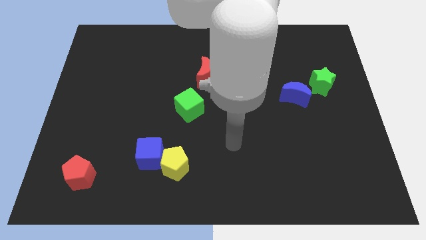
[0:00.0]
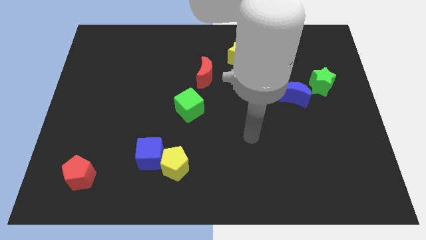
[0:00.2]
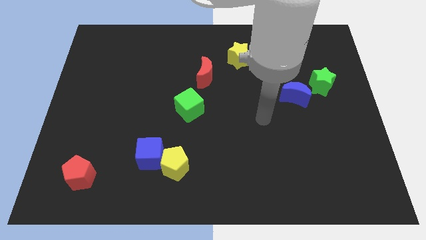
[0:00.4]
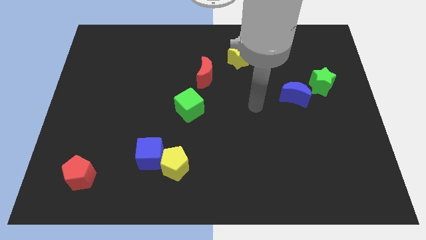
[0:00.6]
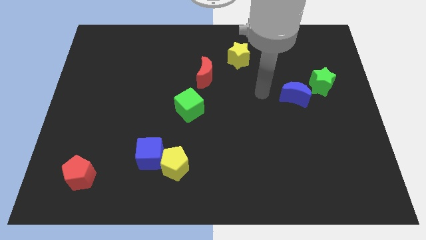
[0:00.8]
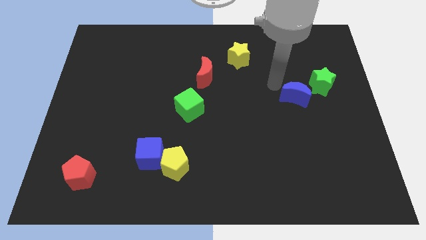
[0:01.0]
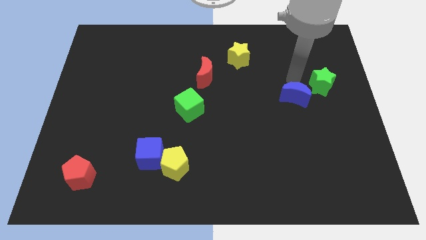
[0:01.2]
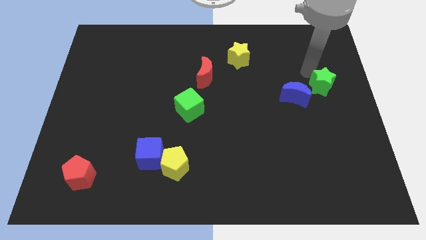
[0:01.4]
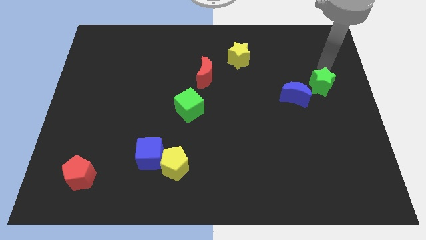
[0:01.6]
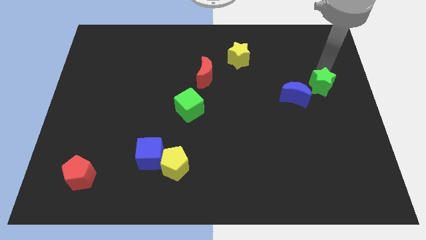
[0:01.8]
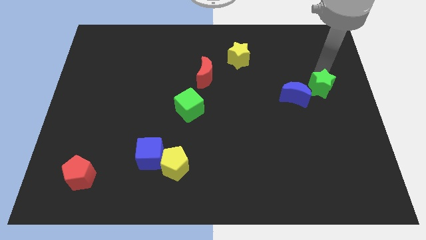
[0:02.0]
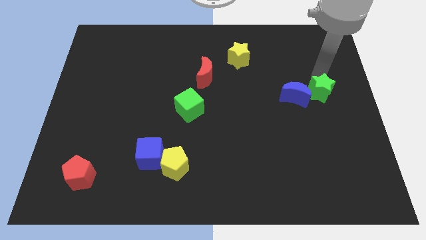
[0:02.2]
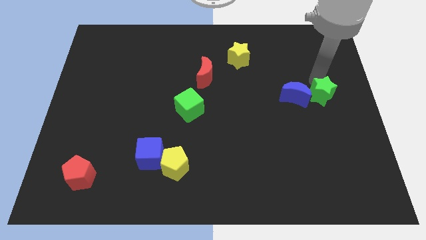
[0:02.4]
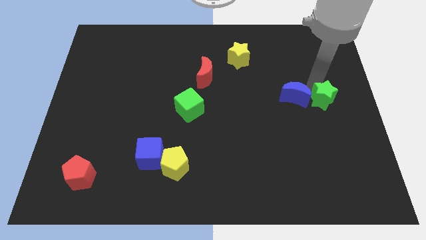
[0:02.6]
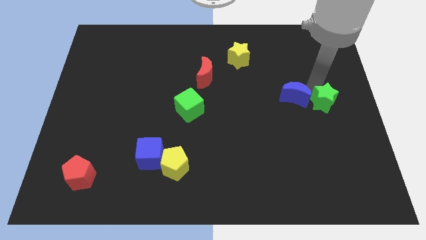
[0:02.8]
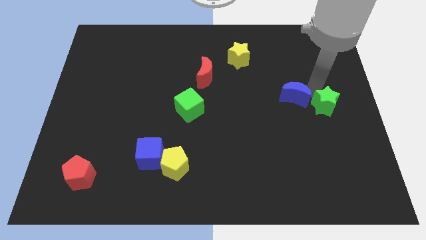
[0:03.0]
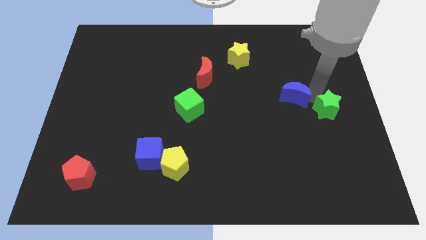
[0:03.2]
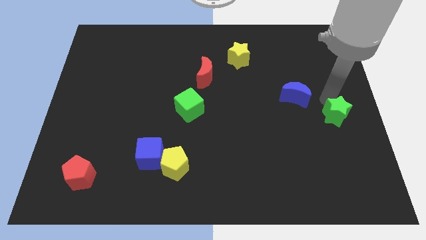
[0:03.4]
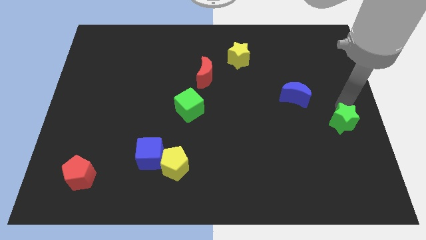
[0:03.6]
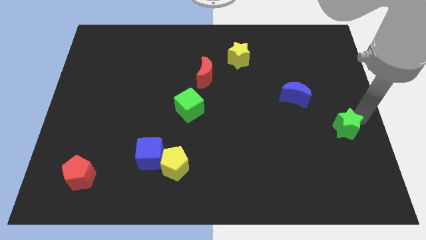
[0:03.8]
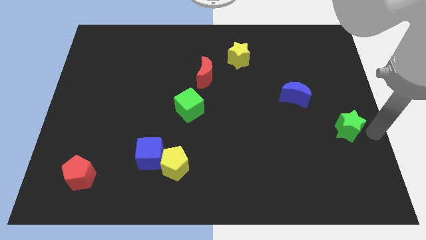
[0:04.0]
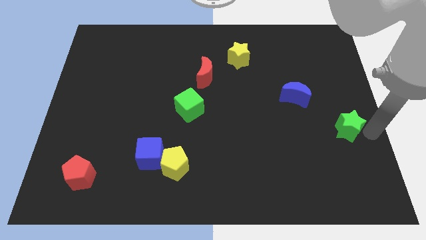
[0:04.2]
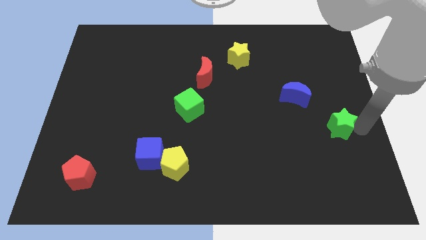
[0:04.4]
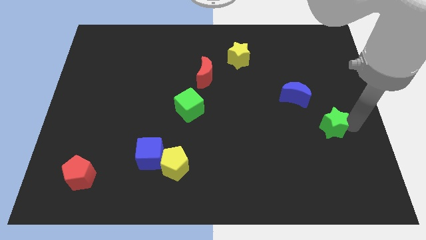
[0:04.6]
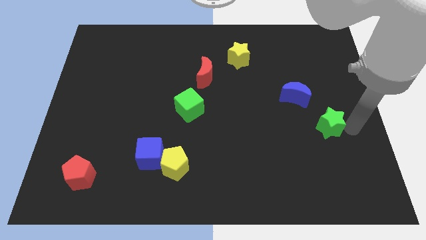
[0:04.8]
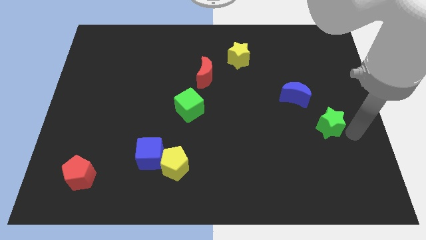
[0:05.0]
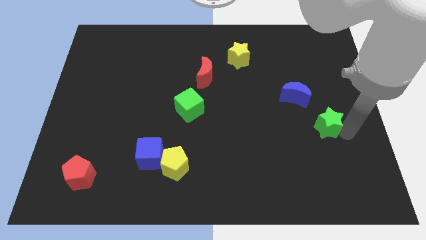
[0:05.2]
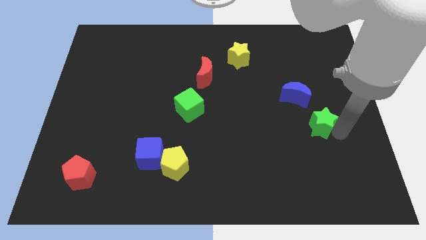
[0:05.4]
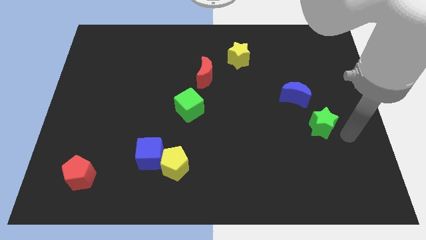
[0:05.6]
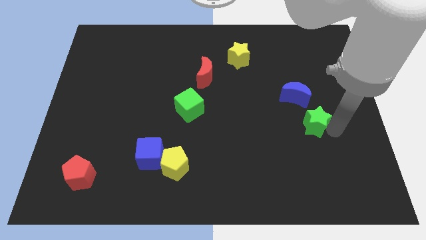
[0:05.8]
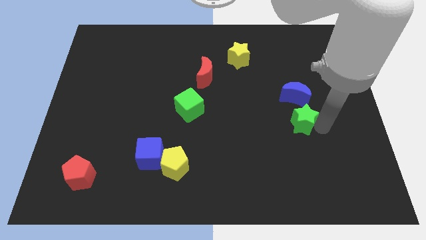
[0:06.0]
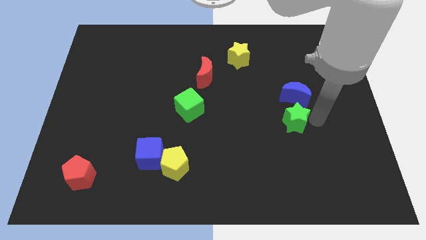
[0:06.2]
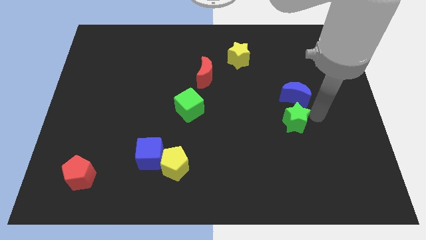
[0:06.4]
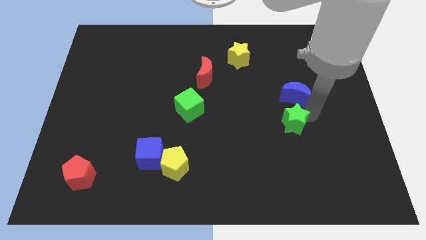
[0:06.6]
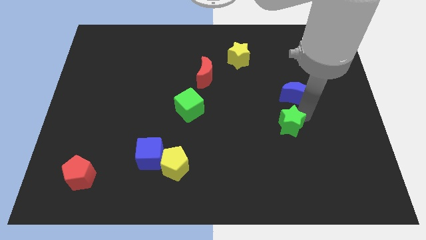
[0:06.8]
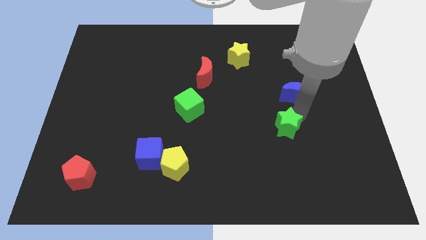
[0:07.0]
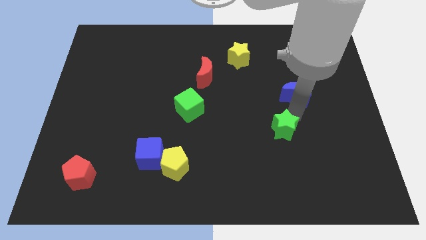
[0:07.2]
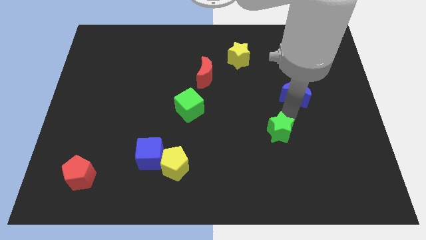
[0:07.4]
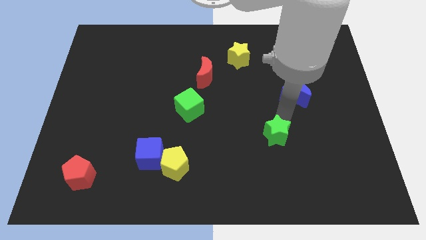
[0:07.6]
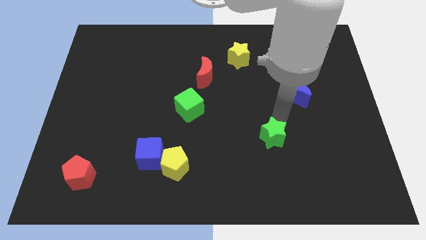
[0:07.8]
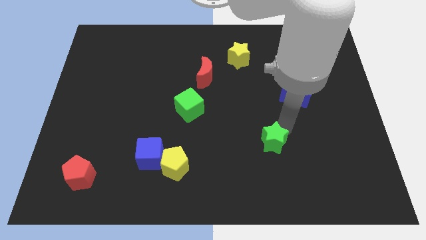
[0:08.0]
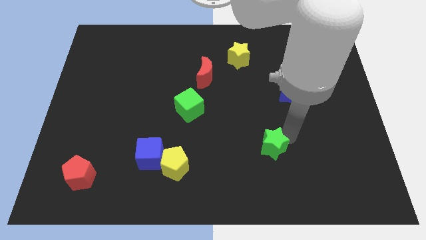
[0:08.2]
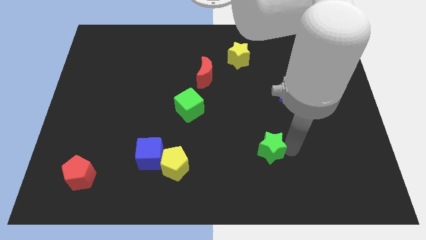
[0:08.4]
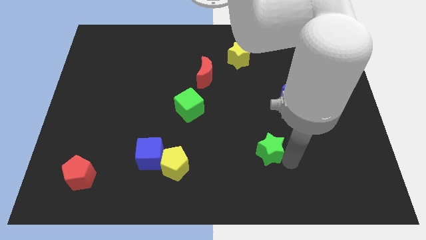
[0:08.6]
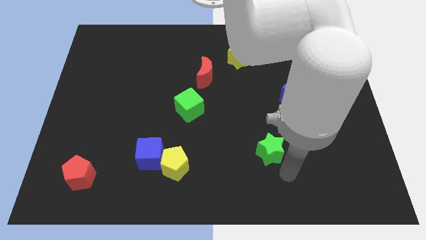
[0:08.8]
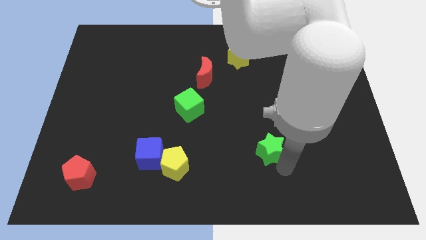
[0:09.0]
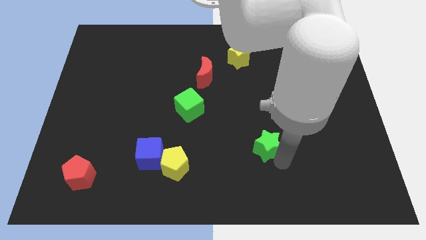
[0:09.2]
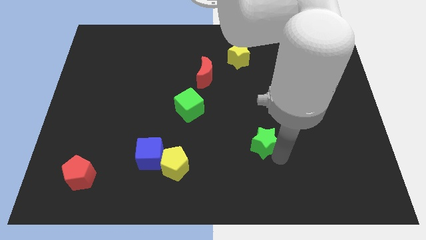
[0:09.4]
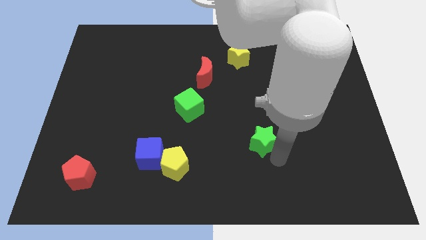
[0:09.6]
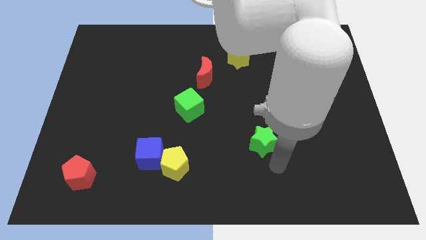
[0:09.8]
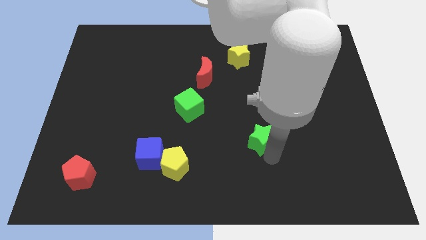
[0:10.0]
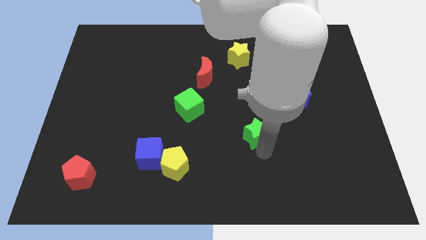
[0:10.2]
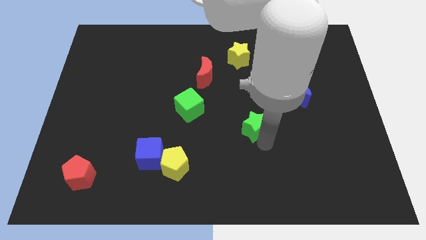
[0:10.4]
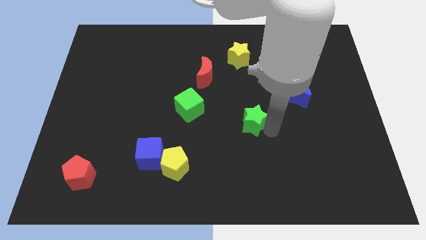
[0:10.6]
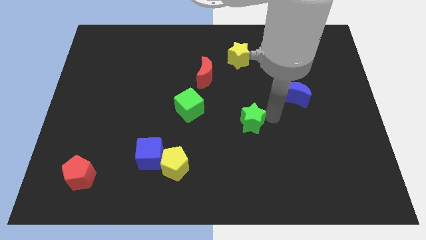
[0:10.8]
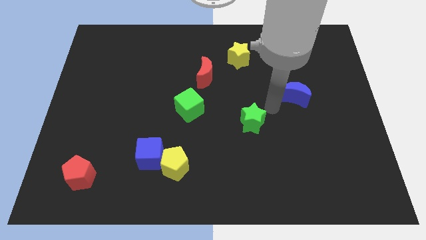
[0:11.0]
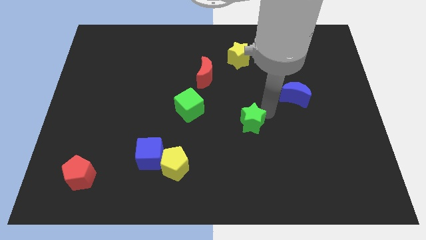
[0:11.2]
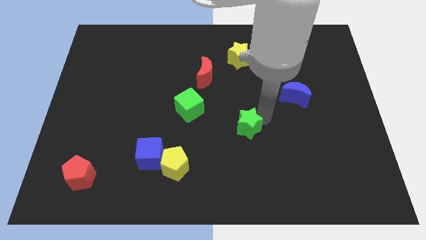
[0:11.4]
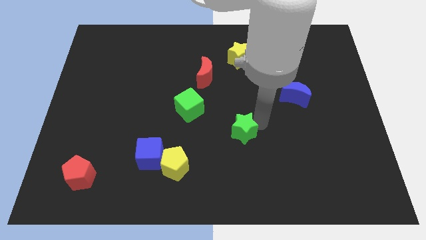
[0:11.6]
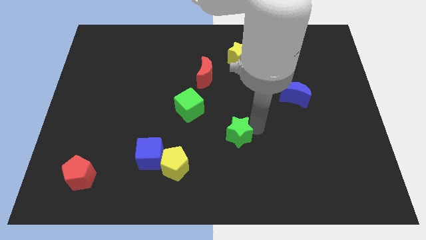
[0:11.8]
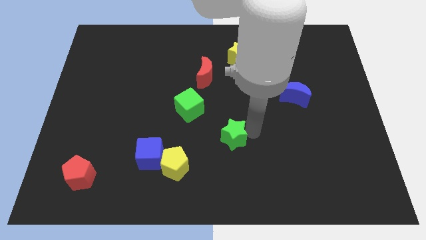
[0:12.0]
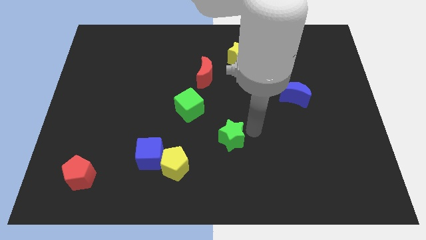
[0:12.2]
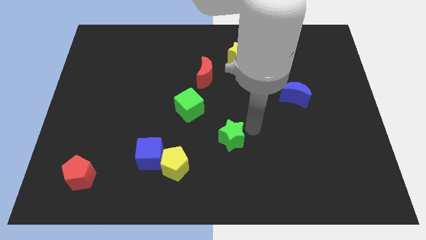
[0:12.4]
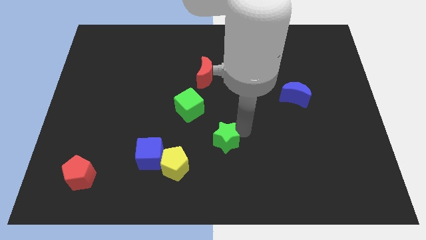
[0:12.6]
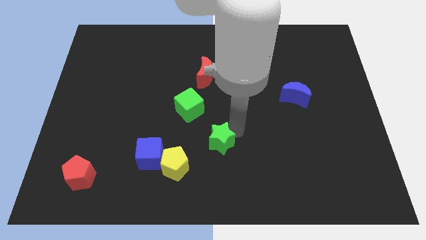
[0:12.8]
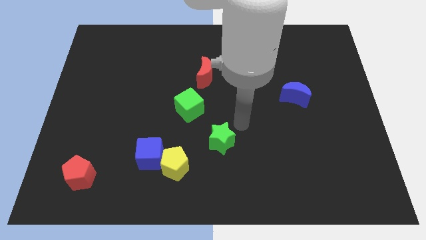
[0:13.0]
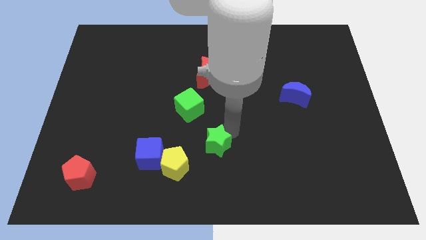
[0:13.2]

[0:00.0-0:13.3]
move the green star just right of the blue cube
